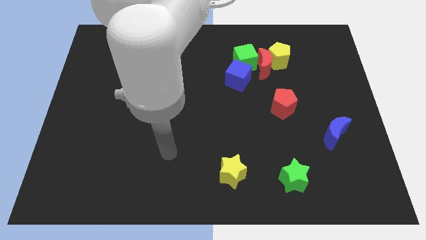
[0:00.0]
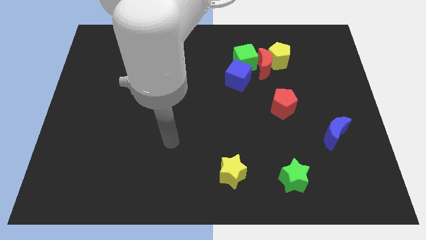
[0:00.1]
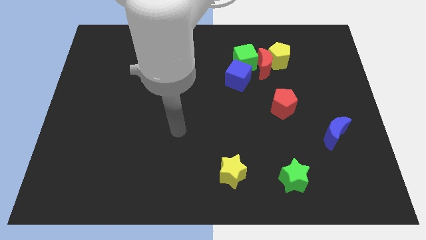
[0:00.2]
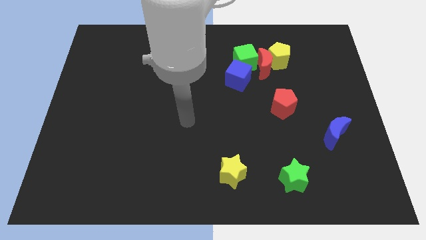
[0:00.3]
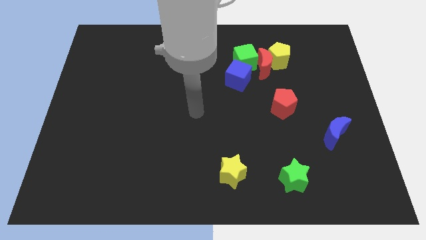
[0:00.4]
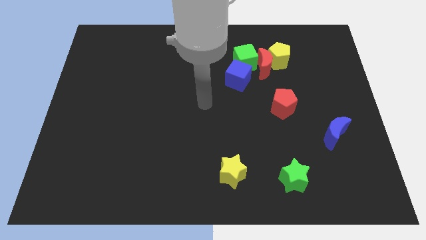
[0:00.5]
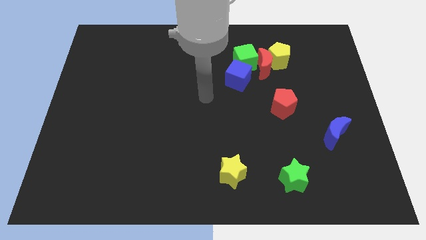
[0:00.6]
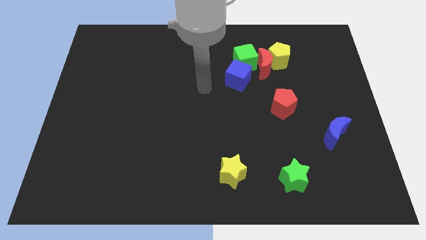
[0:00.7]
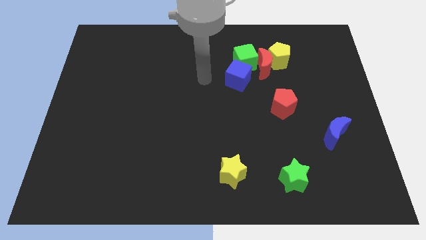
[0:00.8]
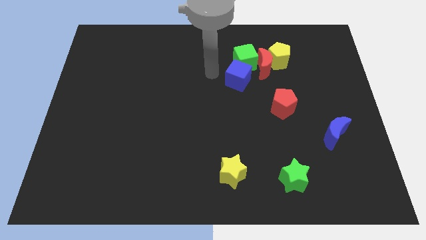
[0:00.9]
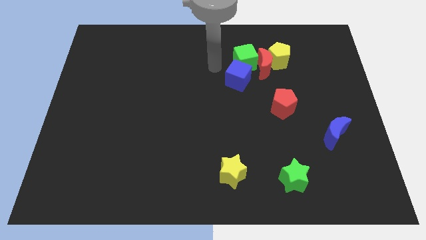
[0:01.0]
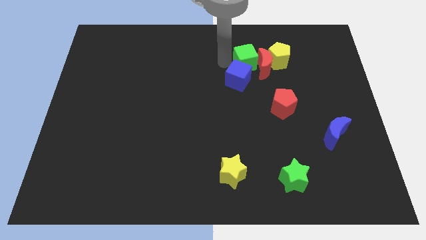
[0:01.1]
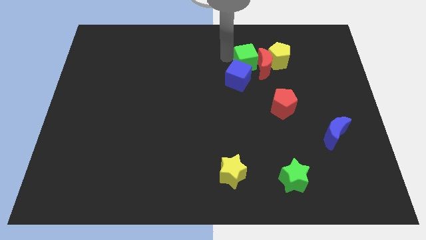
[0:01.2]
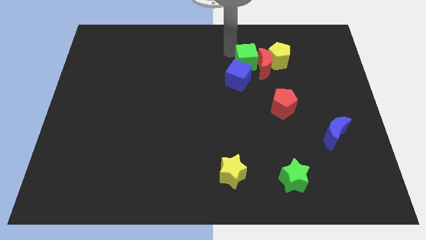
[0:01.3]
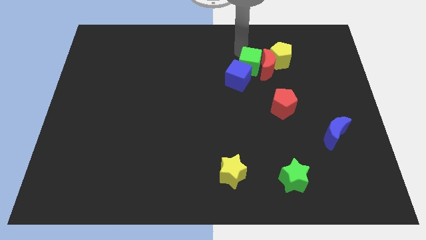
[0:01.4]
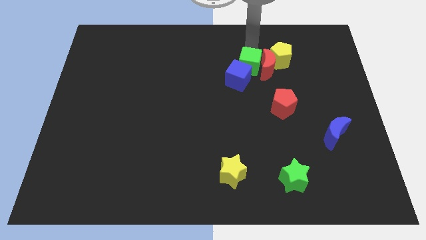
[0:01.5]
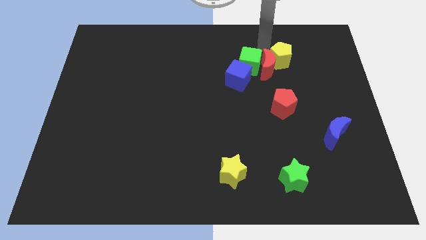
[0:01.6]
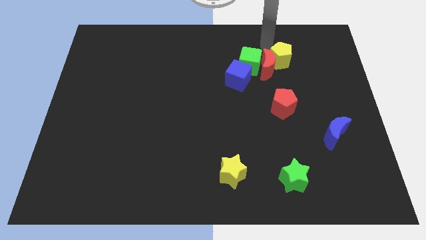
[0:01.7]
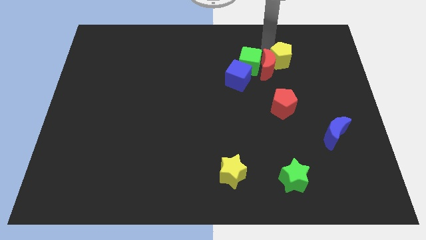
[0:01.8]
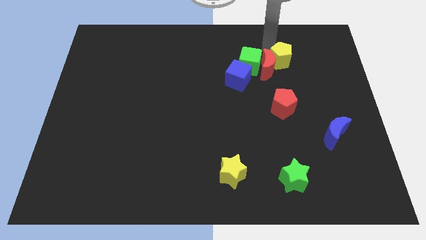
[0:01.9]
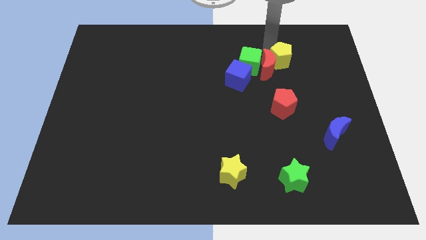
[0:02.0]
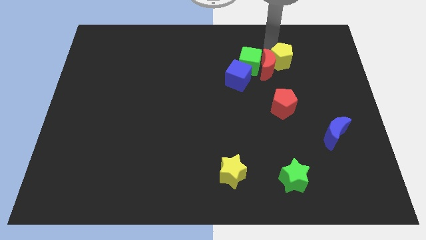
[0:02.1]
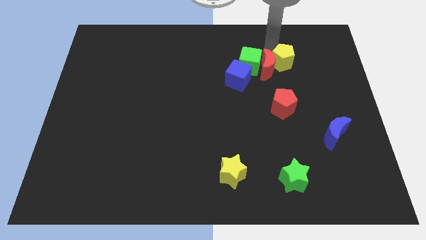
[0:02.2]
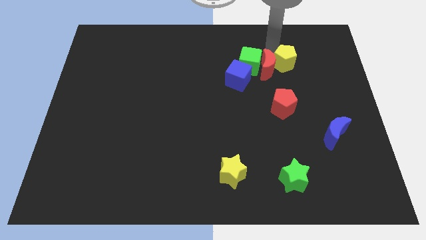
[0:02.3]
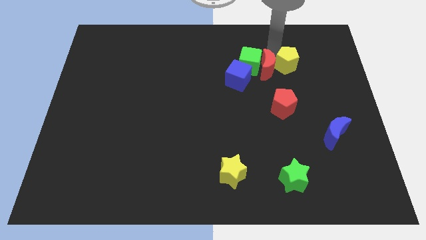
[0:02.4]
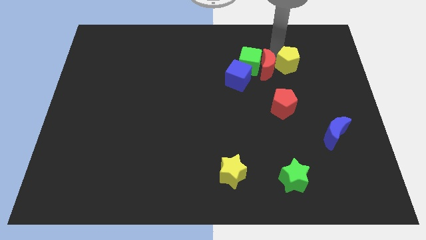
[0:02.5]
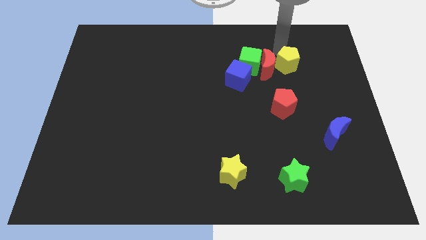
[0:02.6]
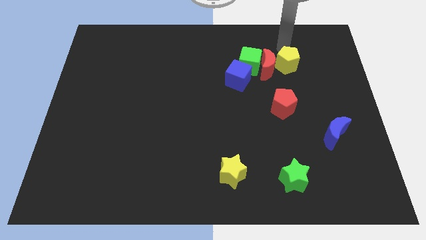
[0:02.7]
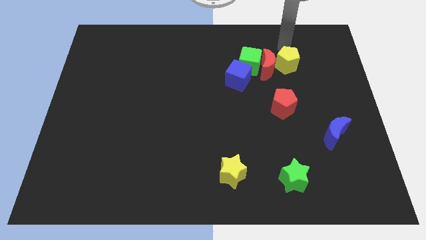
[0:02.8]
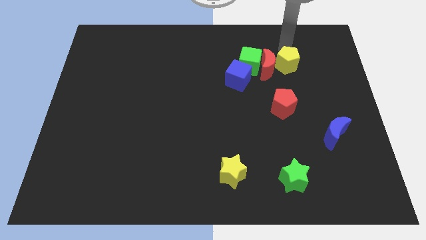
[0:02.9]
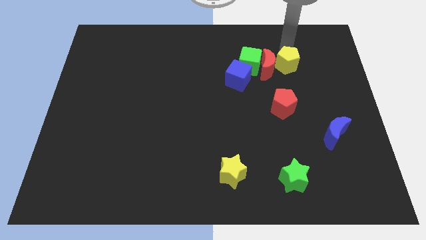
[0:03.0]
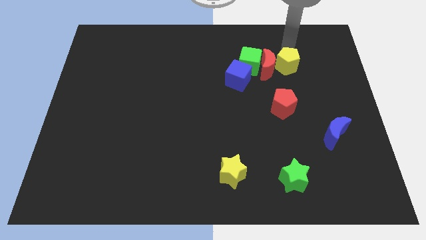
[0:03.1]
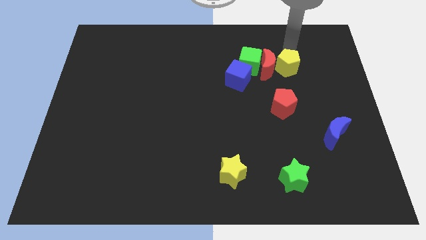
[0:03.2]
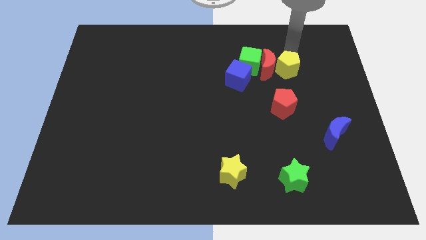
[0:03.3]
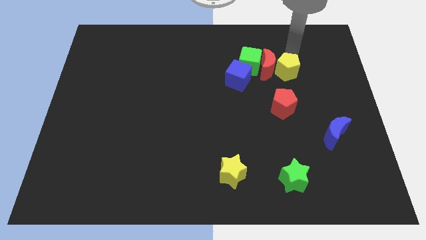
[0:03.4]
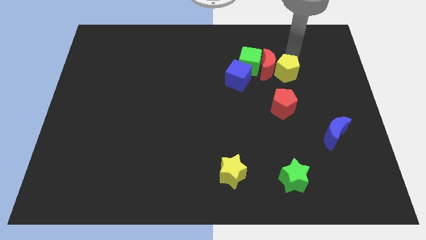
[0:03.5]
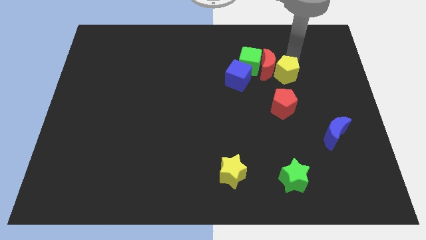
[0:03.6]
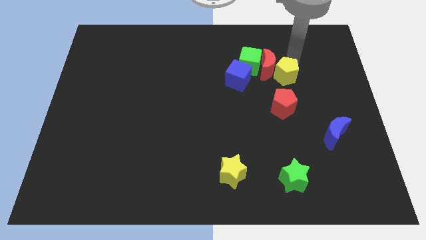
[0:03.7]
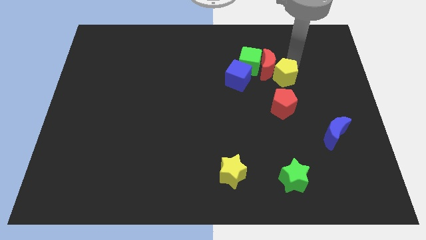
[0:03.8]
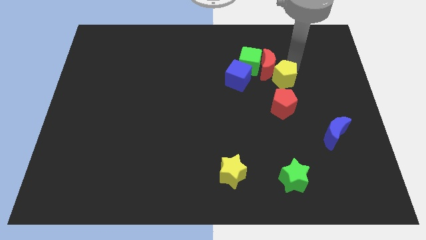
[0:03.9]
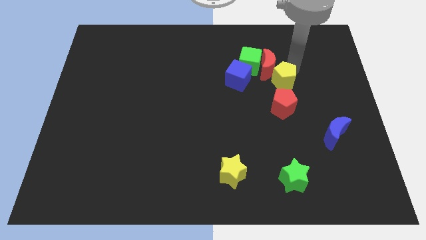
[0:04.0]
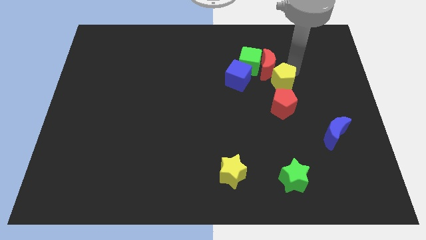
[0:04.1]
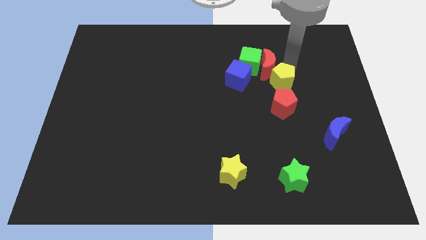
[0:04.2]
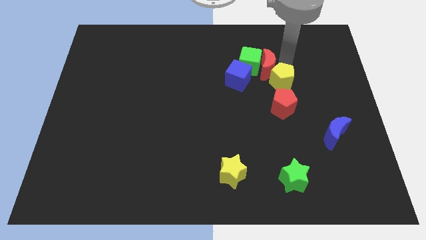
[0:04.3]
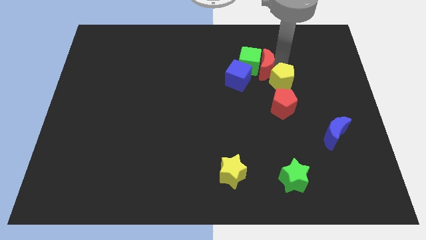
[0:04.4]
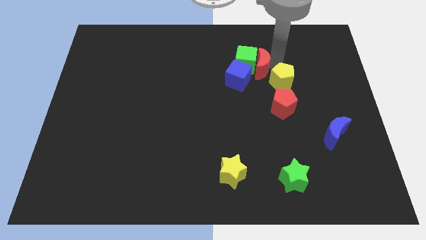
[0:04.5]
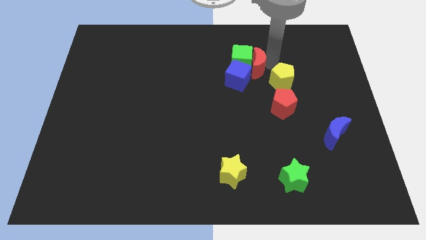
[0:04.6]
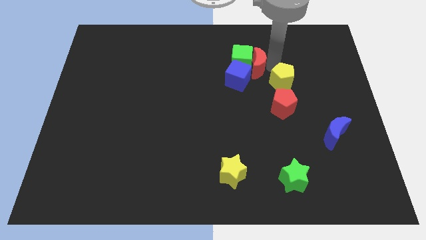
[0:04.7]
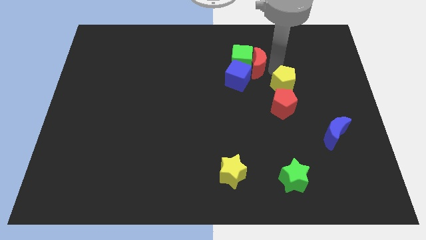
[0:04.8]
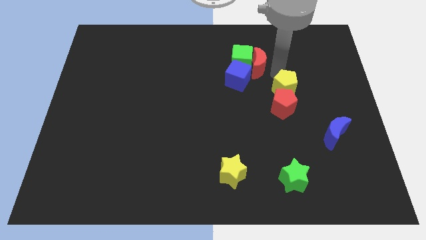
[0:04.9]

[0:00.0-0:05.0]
slide the yellow pentagon close to the red pentagon

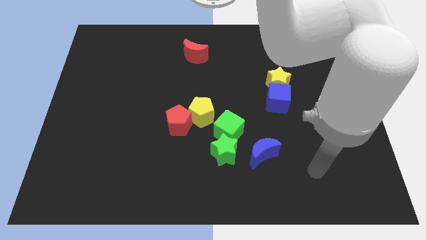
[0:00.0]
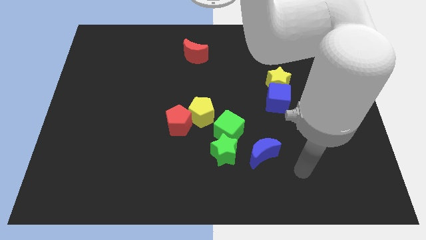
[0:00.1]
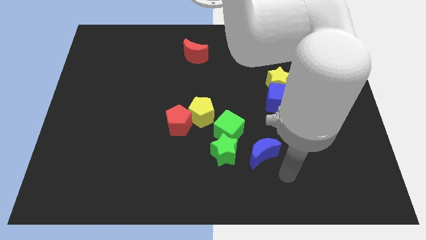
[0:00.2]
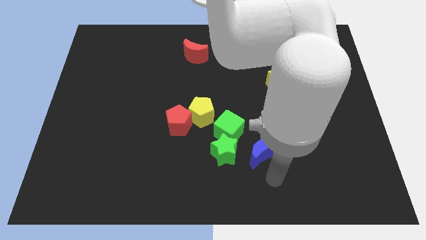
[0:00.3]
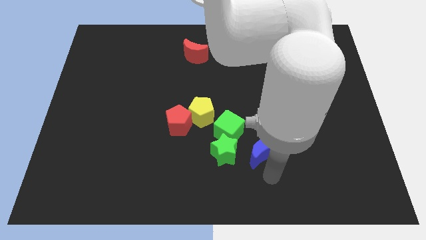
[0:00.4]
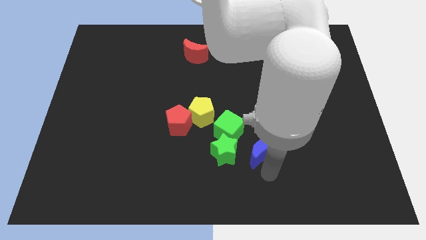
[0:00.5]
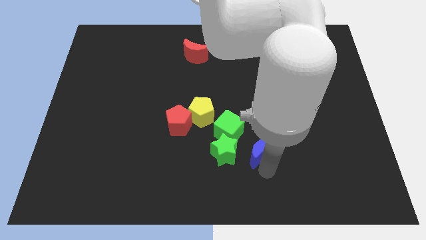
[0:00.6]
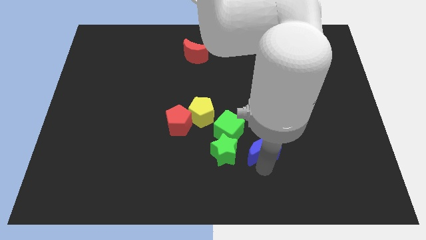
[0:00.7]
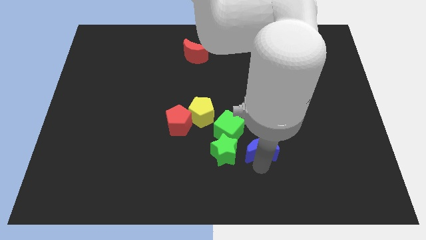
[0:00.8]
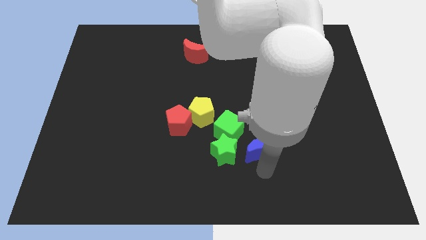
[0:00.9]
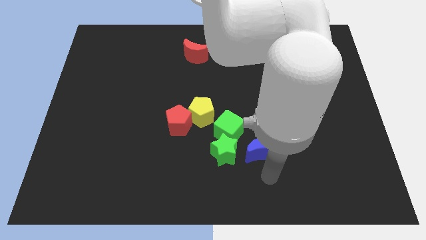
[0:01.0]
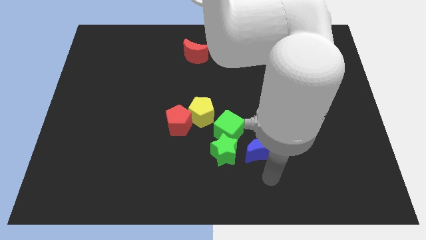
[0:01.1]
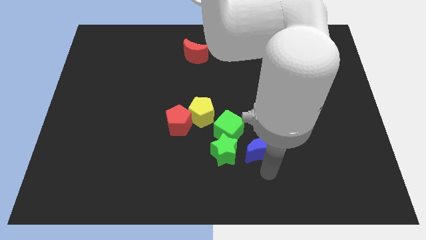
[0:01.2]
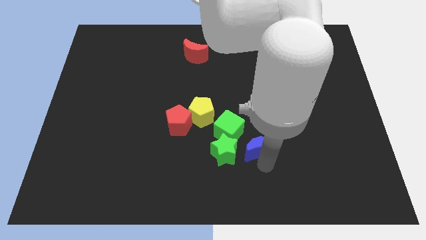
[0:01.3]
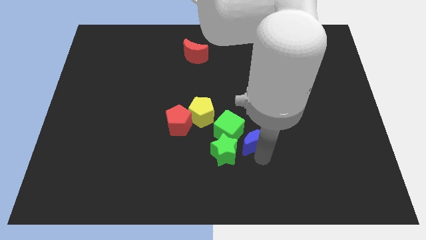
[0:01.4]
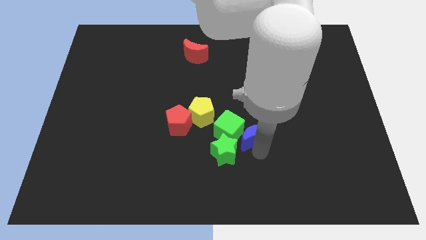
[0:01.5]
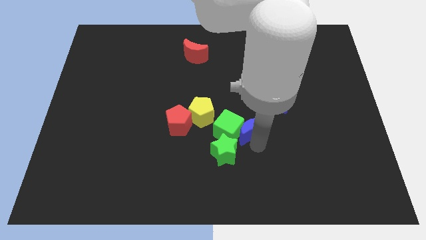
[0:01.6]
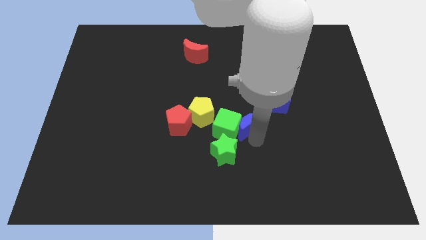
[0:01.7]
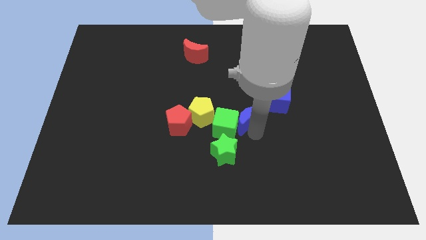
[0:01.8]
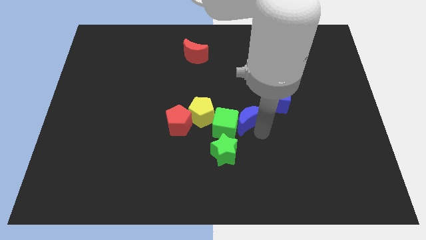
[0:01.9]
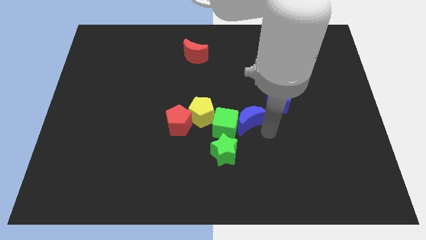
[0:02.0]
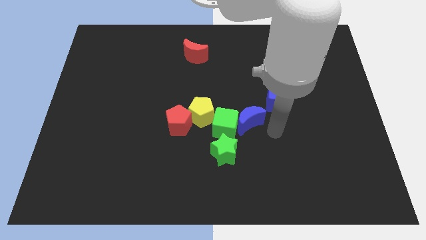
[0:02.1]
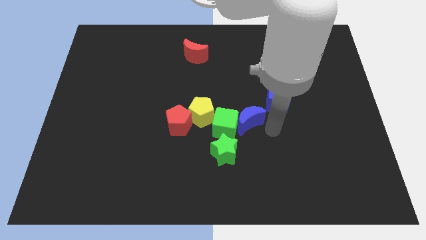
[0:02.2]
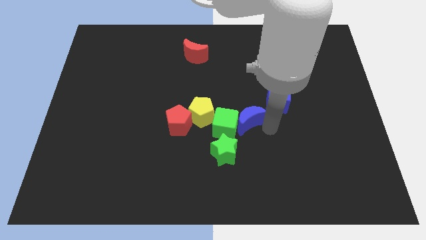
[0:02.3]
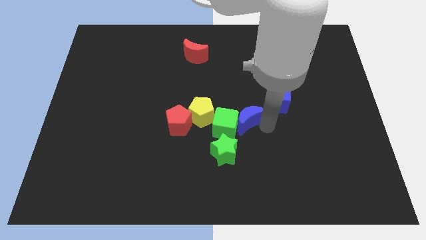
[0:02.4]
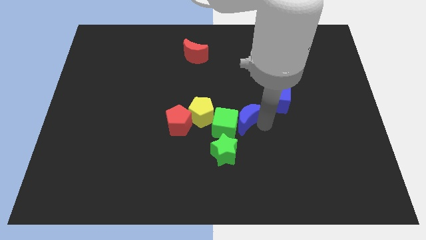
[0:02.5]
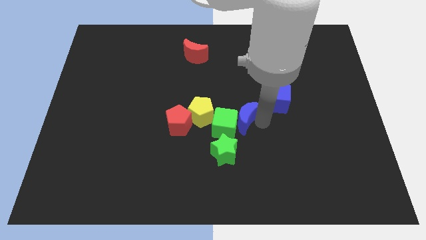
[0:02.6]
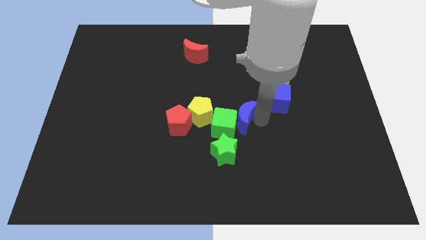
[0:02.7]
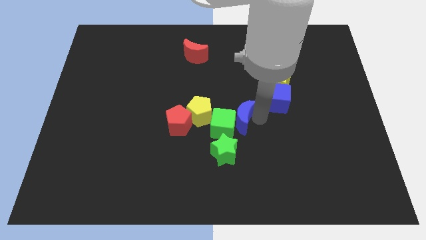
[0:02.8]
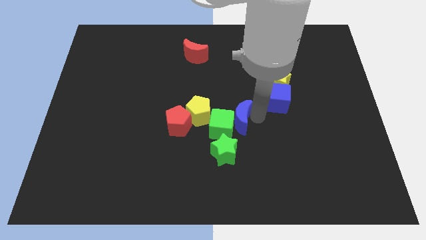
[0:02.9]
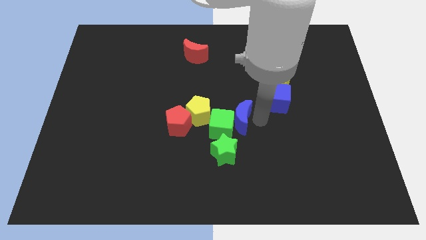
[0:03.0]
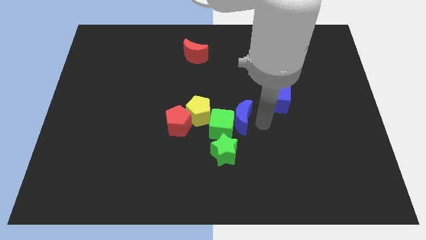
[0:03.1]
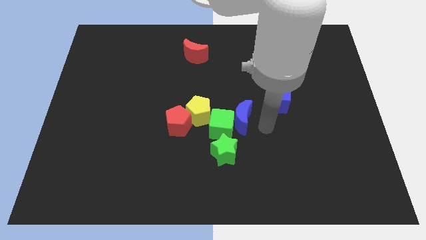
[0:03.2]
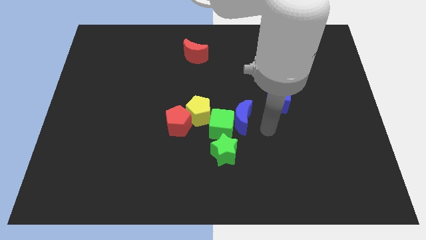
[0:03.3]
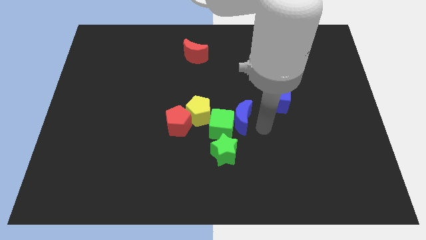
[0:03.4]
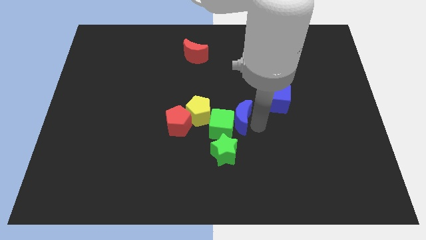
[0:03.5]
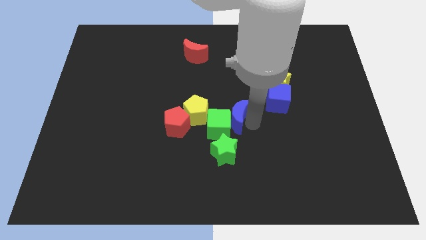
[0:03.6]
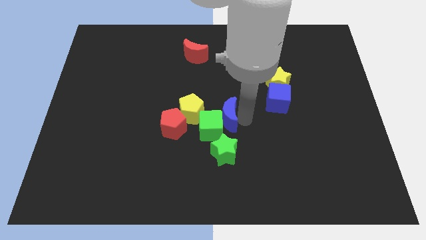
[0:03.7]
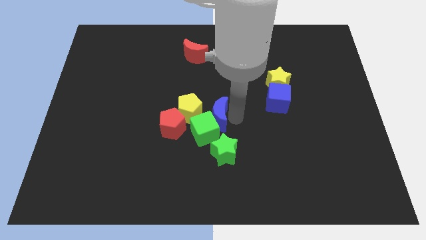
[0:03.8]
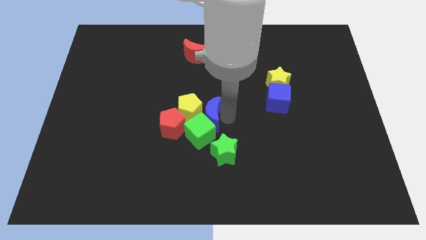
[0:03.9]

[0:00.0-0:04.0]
slide the blue moon next to the yellow pentagon
